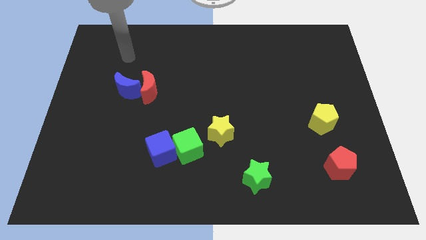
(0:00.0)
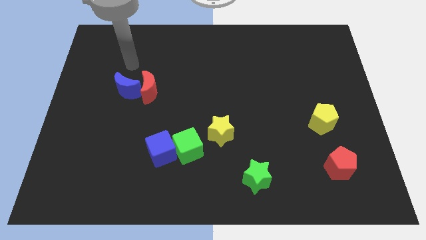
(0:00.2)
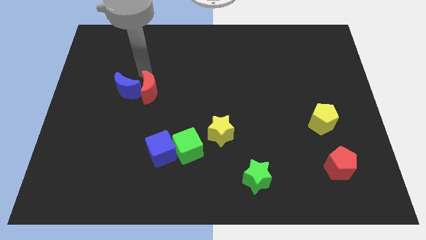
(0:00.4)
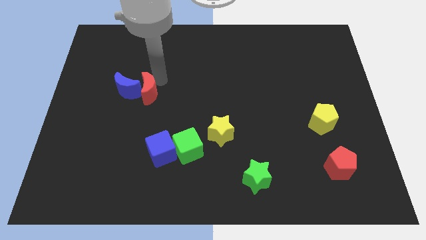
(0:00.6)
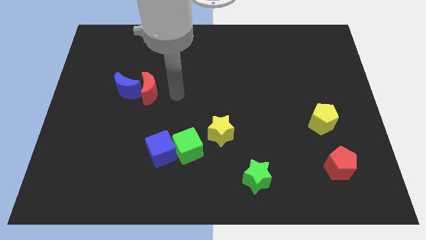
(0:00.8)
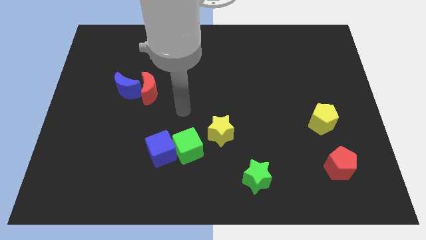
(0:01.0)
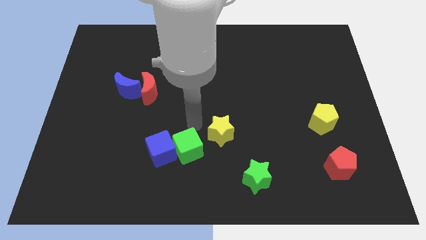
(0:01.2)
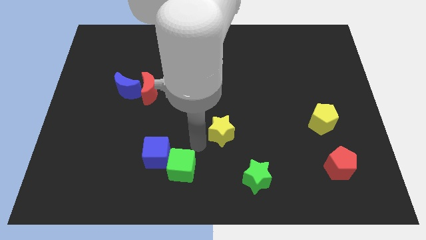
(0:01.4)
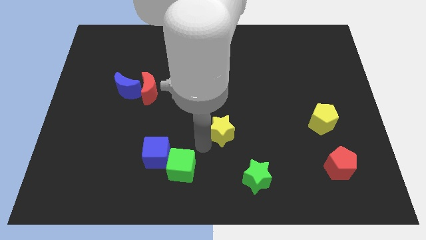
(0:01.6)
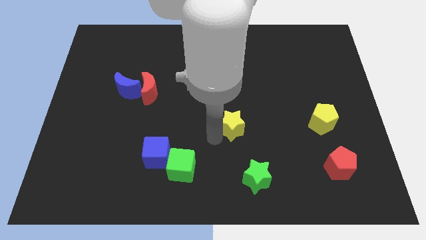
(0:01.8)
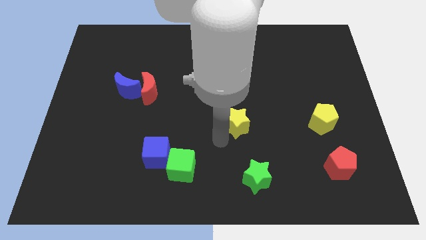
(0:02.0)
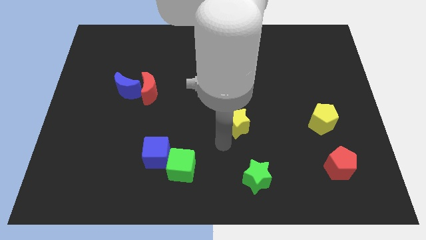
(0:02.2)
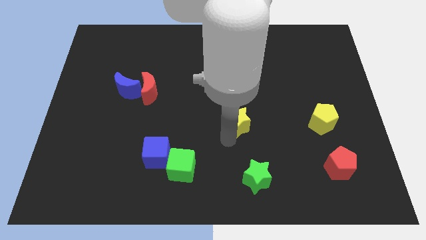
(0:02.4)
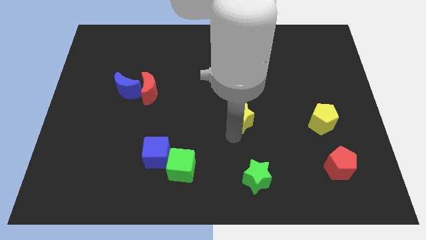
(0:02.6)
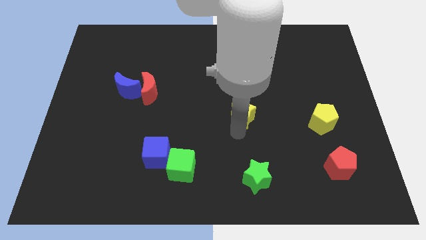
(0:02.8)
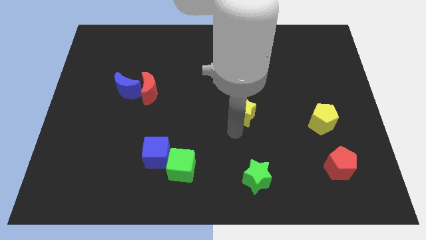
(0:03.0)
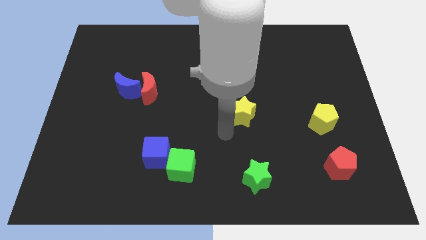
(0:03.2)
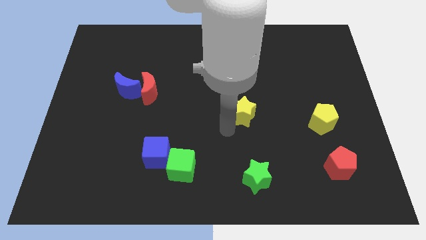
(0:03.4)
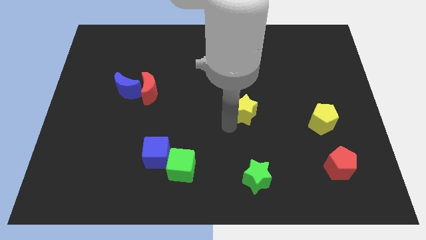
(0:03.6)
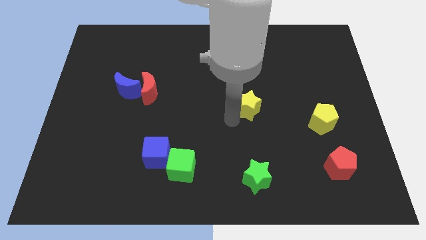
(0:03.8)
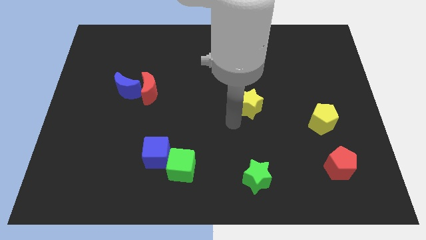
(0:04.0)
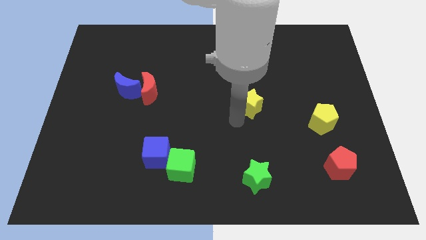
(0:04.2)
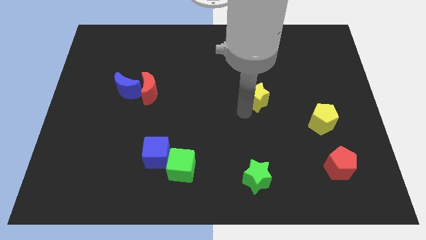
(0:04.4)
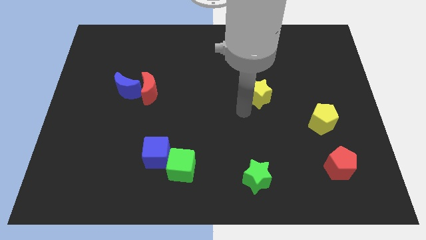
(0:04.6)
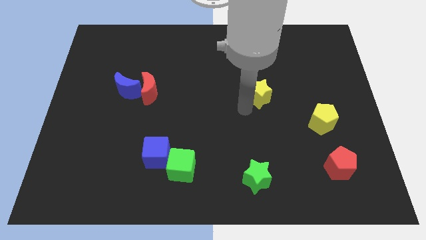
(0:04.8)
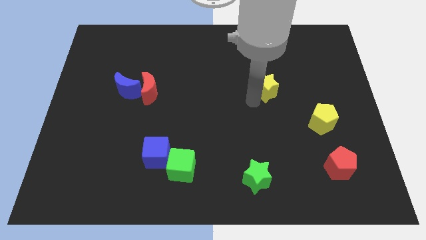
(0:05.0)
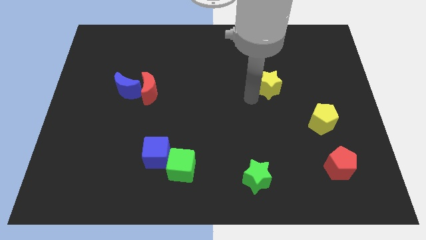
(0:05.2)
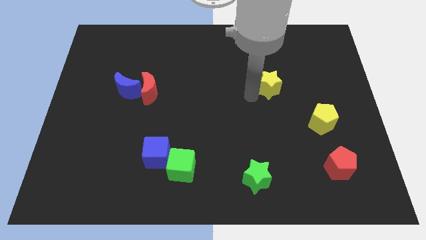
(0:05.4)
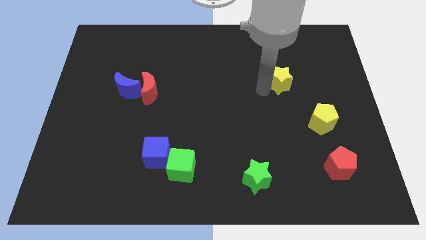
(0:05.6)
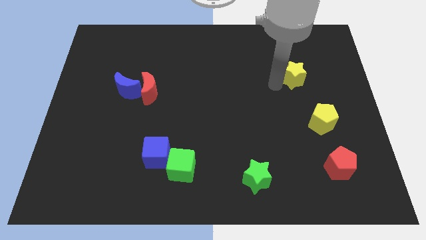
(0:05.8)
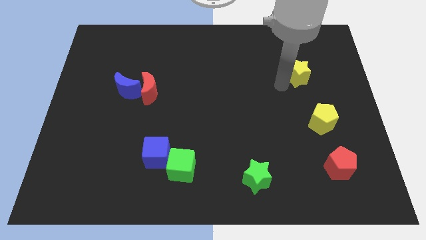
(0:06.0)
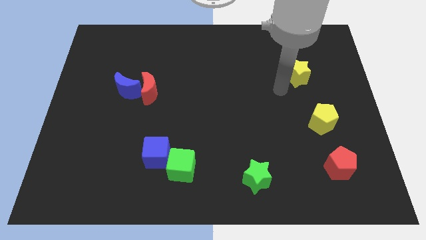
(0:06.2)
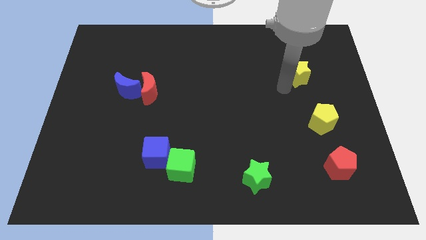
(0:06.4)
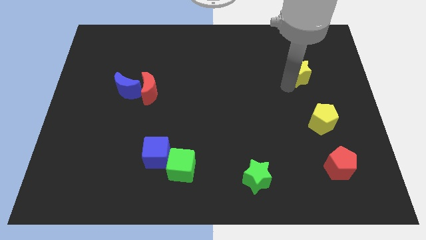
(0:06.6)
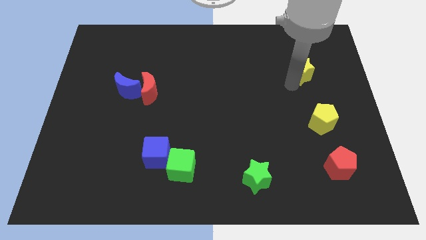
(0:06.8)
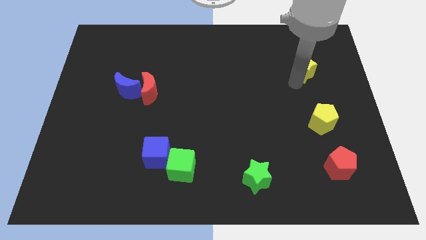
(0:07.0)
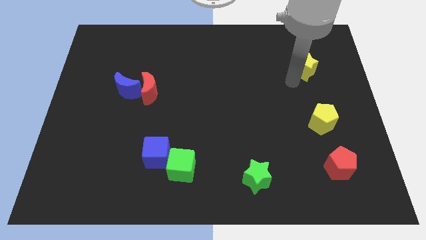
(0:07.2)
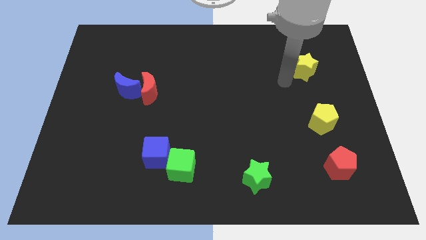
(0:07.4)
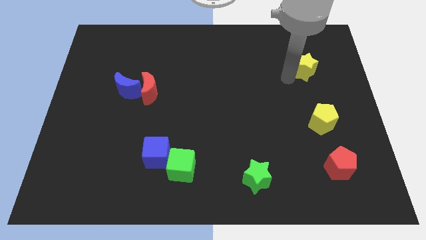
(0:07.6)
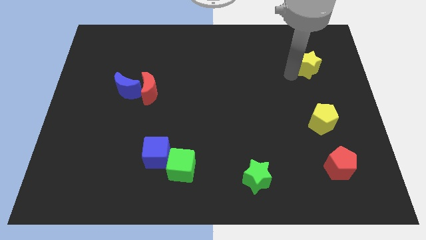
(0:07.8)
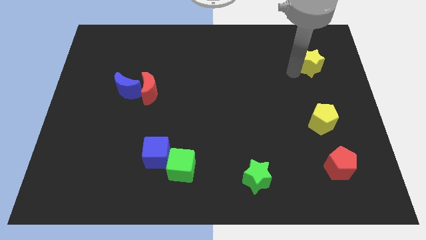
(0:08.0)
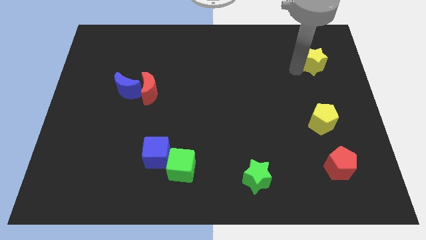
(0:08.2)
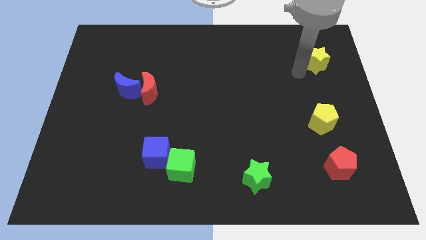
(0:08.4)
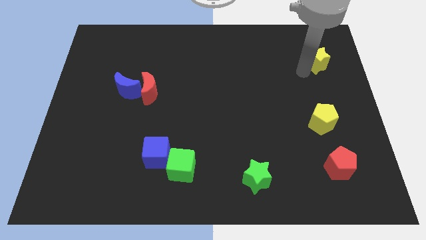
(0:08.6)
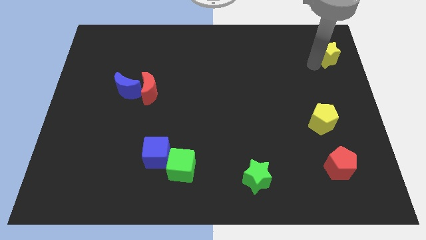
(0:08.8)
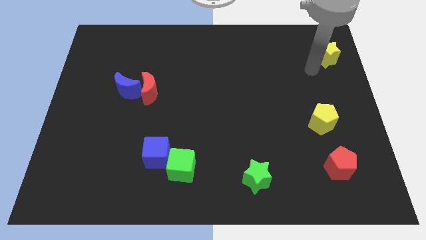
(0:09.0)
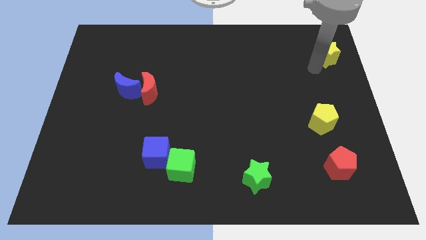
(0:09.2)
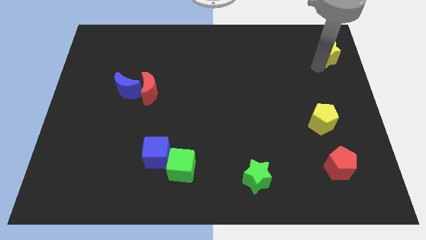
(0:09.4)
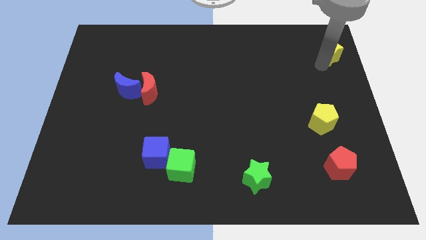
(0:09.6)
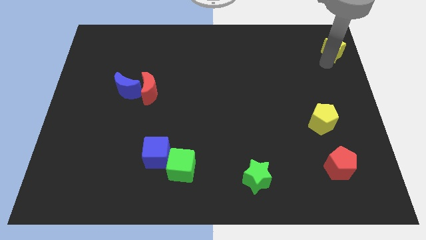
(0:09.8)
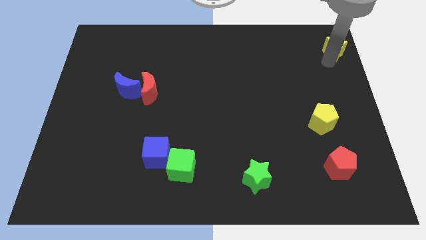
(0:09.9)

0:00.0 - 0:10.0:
slide the yellow star to the top right corner

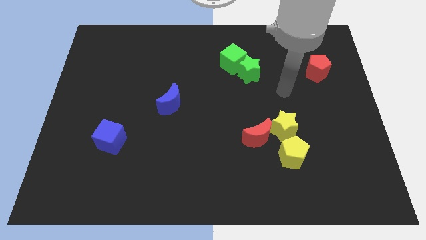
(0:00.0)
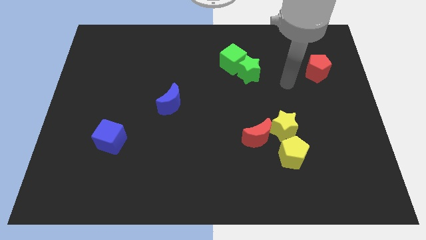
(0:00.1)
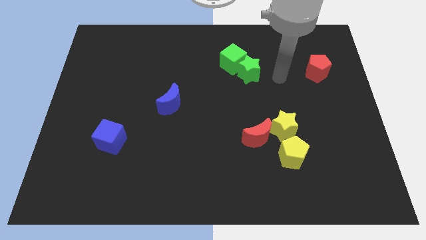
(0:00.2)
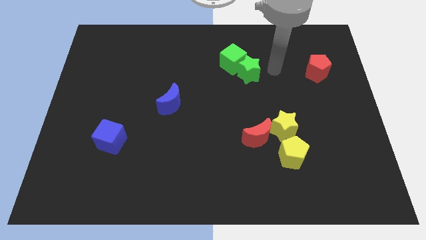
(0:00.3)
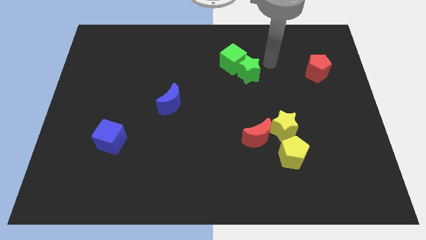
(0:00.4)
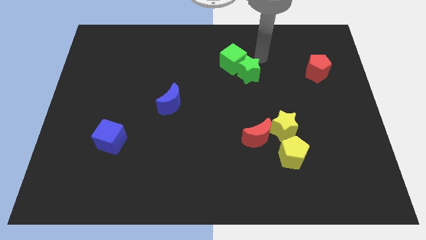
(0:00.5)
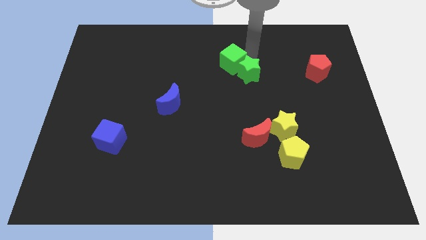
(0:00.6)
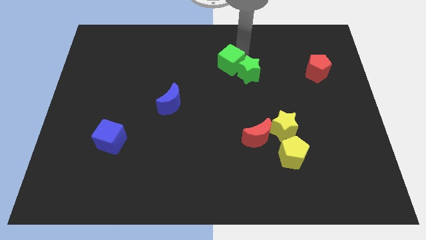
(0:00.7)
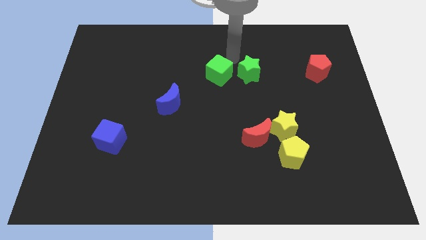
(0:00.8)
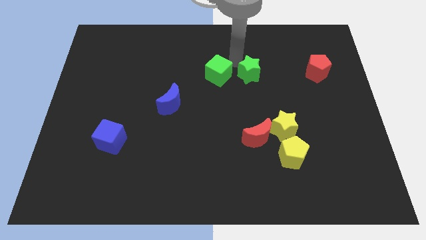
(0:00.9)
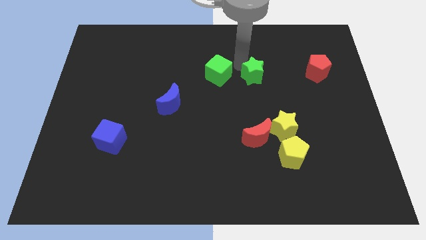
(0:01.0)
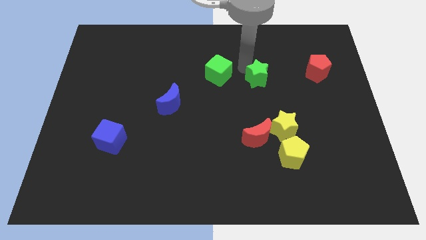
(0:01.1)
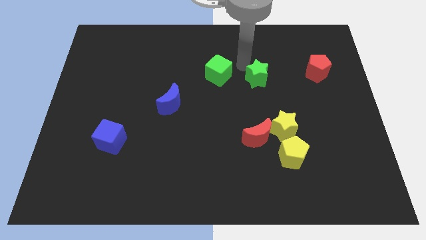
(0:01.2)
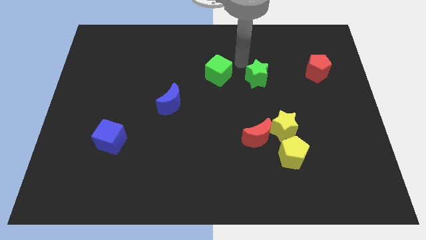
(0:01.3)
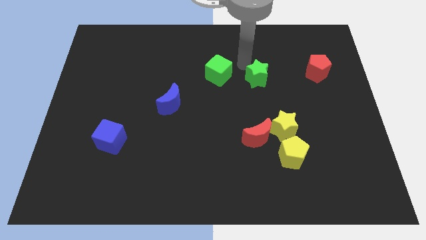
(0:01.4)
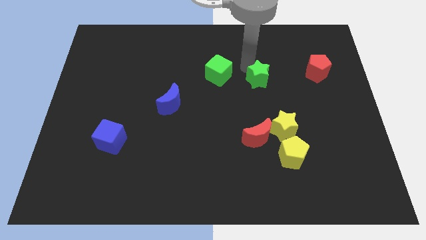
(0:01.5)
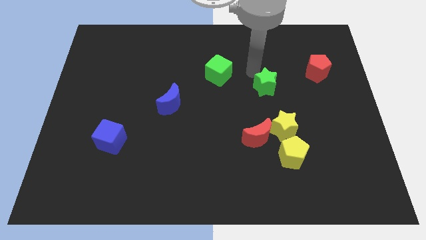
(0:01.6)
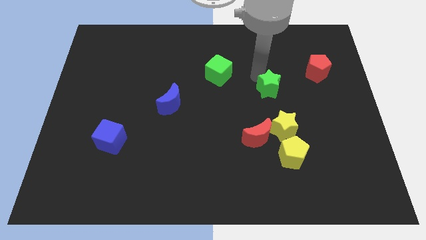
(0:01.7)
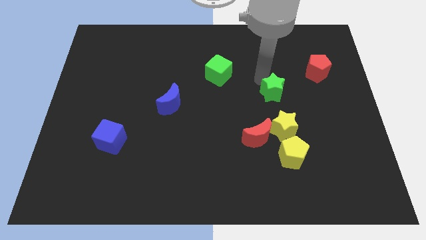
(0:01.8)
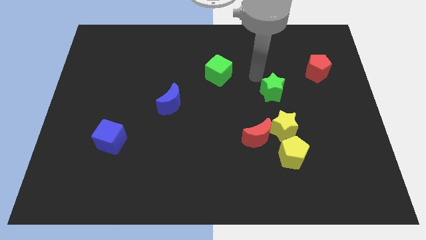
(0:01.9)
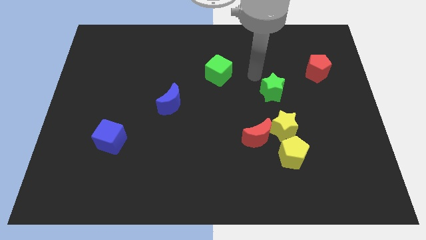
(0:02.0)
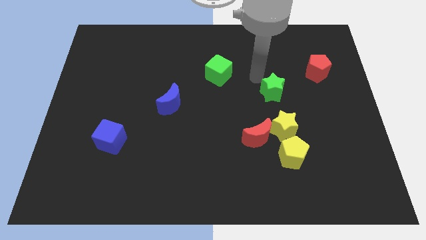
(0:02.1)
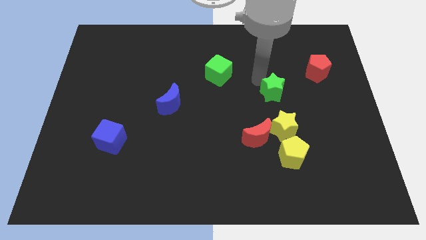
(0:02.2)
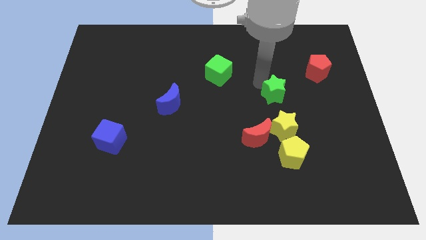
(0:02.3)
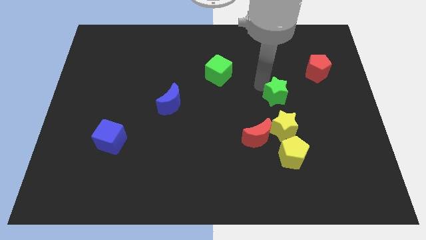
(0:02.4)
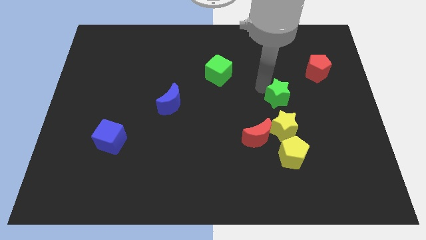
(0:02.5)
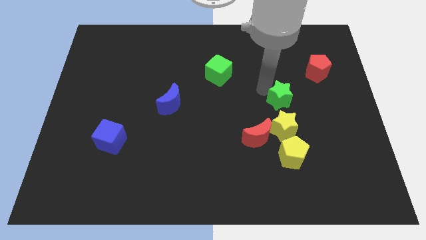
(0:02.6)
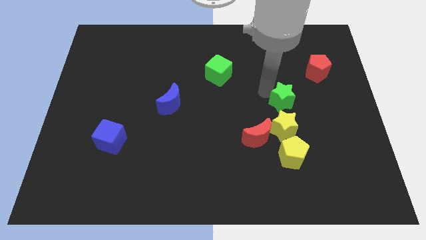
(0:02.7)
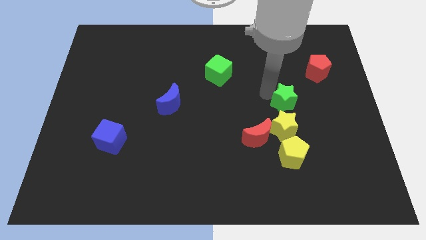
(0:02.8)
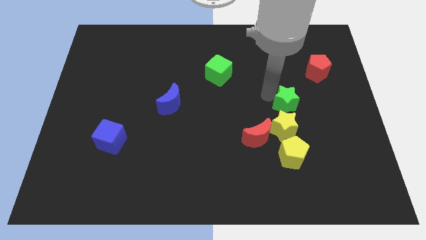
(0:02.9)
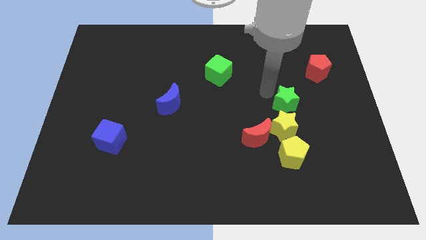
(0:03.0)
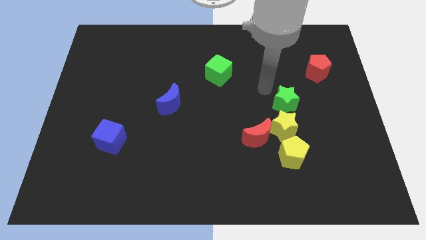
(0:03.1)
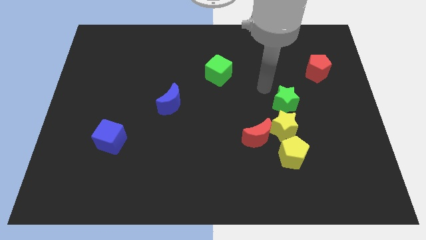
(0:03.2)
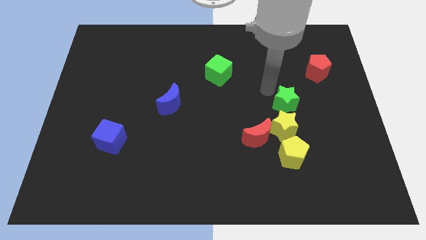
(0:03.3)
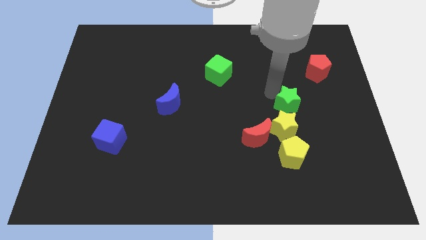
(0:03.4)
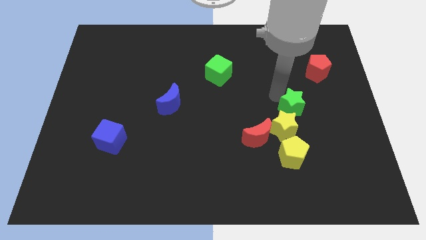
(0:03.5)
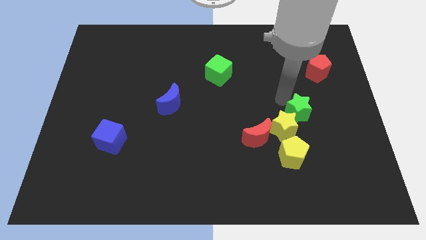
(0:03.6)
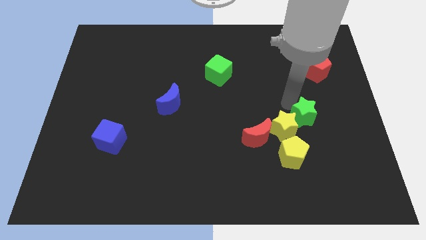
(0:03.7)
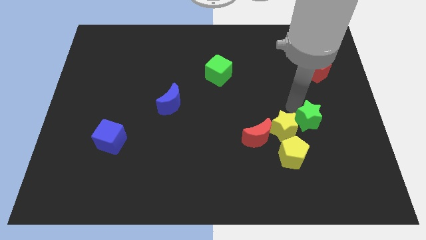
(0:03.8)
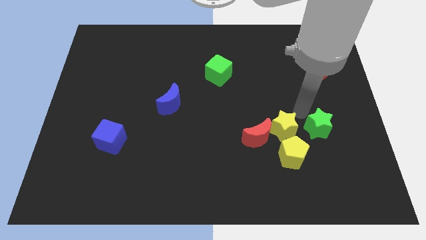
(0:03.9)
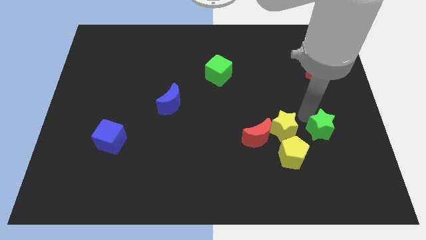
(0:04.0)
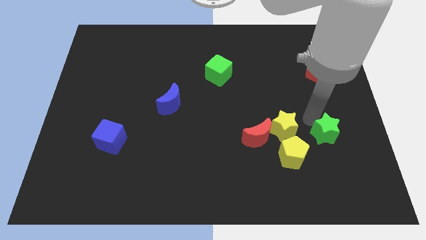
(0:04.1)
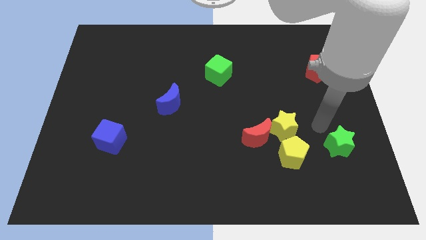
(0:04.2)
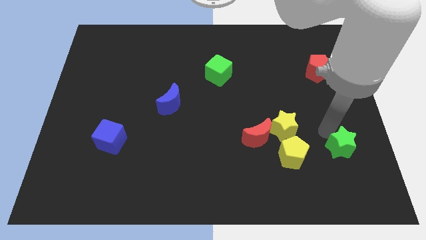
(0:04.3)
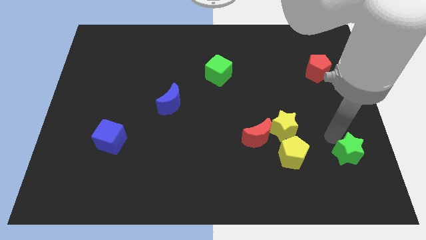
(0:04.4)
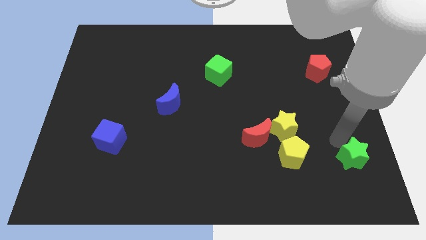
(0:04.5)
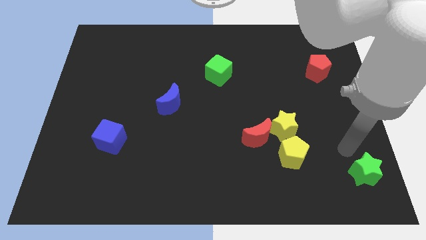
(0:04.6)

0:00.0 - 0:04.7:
put the green star to the lower right corner
